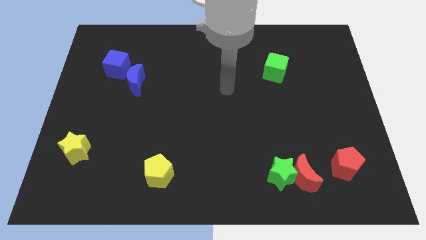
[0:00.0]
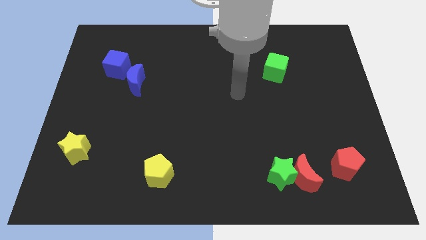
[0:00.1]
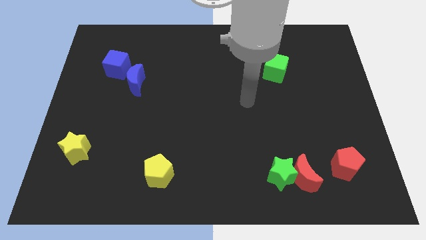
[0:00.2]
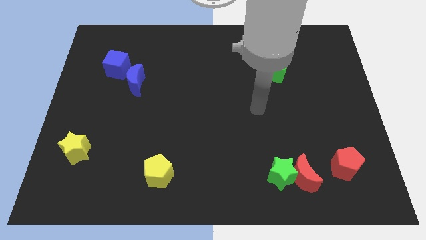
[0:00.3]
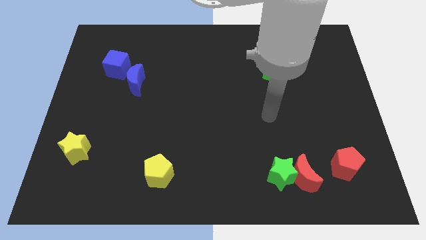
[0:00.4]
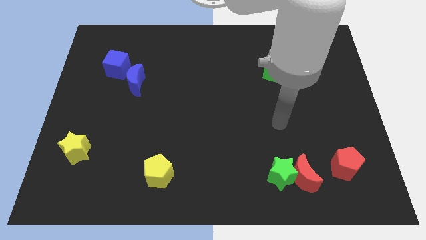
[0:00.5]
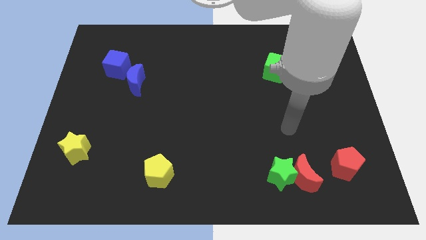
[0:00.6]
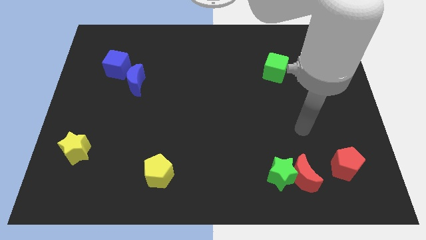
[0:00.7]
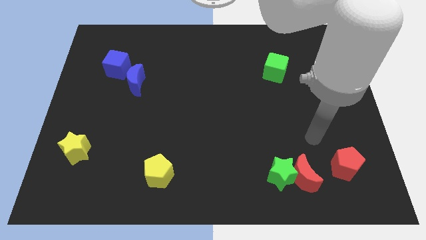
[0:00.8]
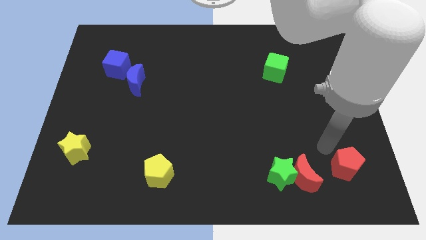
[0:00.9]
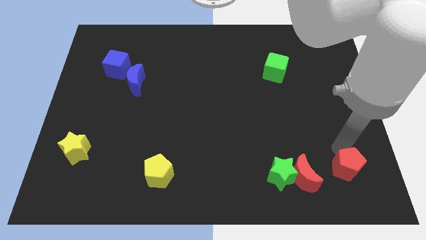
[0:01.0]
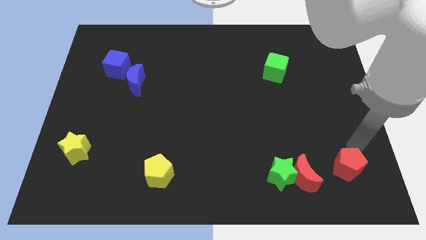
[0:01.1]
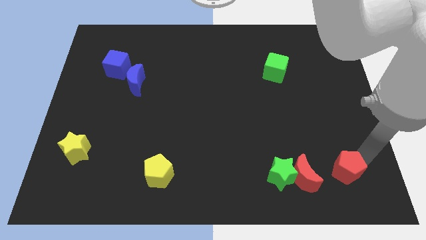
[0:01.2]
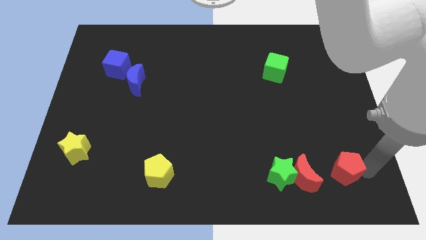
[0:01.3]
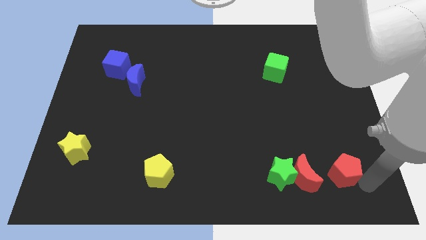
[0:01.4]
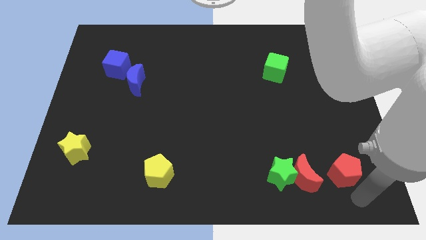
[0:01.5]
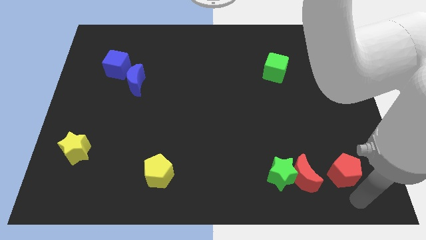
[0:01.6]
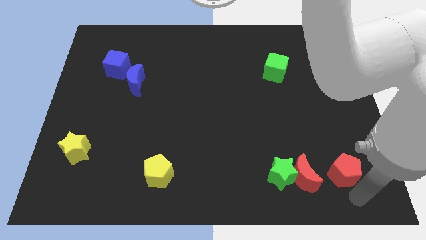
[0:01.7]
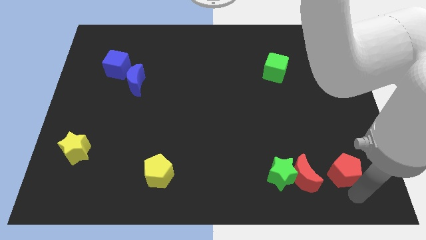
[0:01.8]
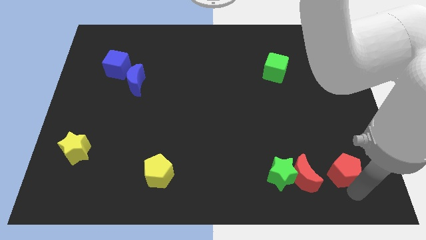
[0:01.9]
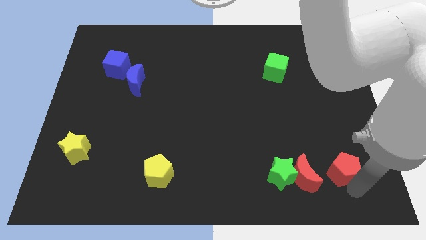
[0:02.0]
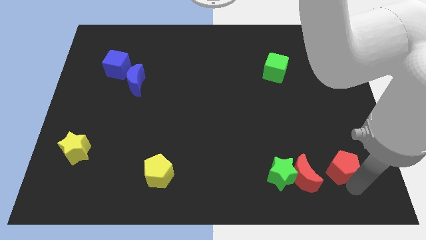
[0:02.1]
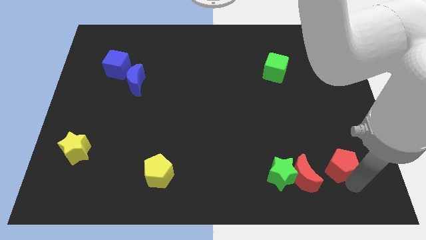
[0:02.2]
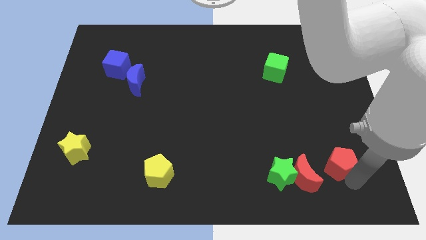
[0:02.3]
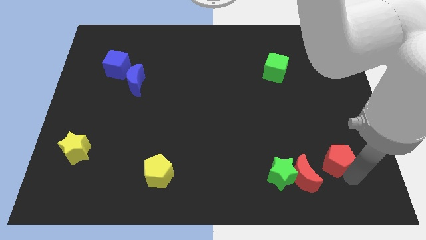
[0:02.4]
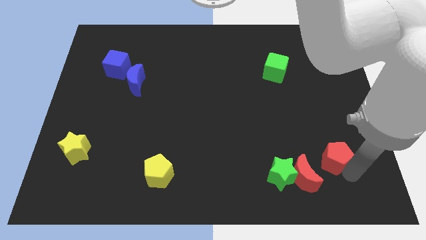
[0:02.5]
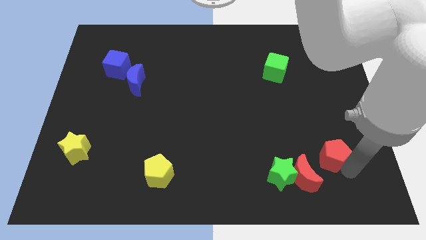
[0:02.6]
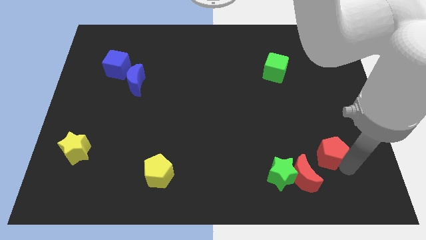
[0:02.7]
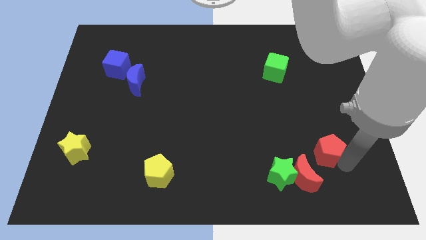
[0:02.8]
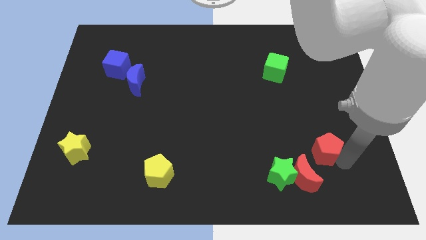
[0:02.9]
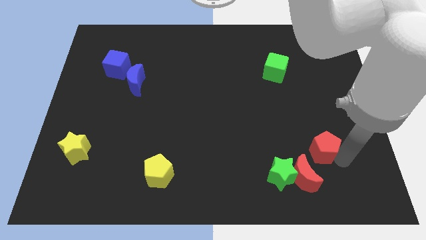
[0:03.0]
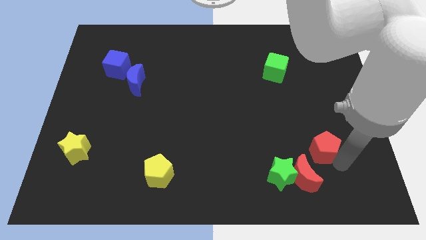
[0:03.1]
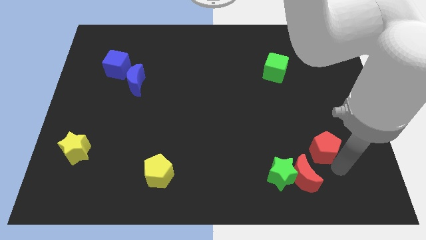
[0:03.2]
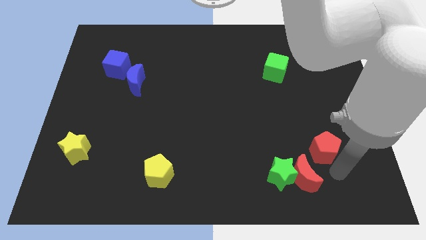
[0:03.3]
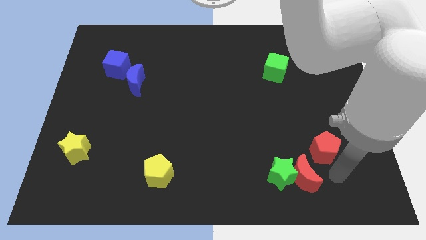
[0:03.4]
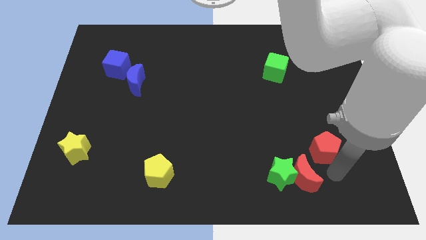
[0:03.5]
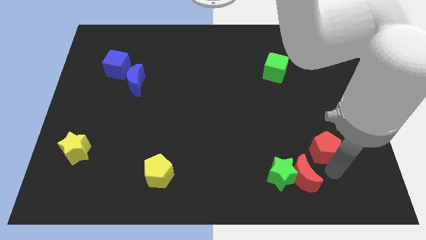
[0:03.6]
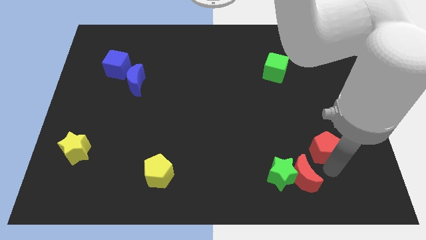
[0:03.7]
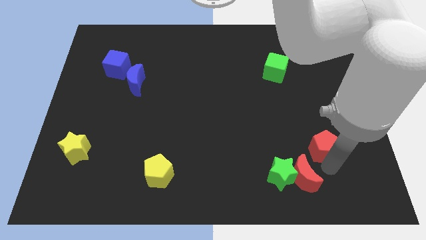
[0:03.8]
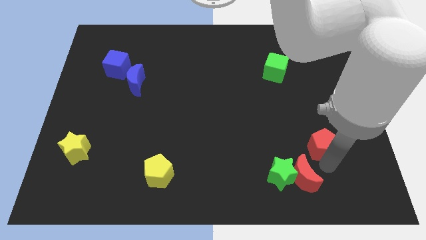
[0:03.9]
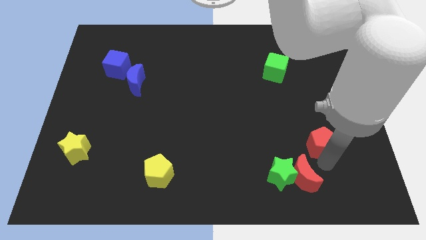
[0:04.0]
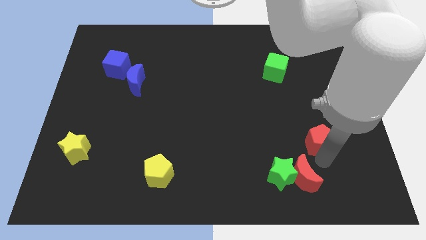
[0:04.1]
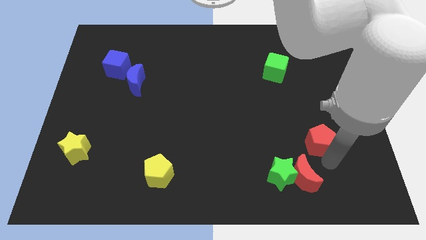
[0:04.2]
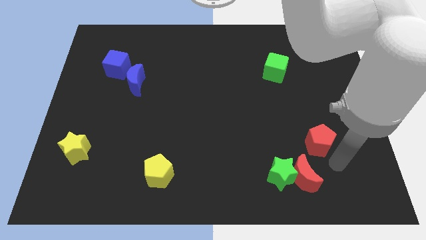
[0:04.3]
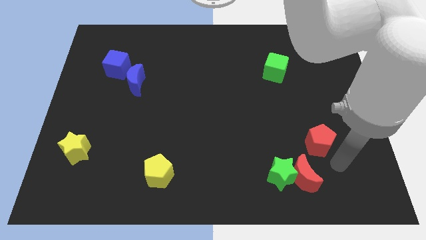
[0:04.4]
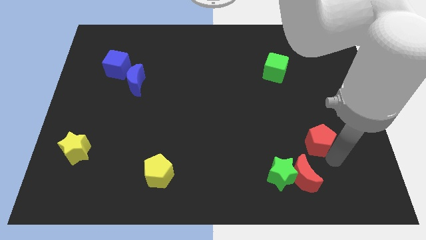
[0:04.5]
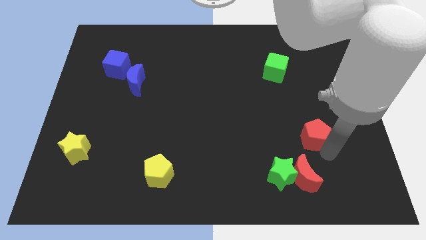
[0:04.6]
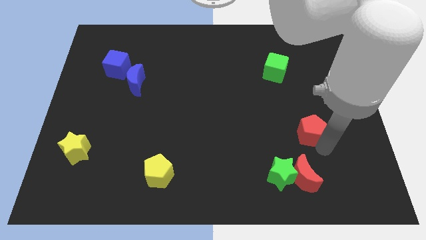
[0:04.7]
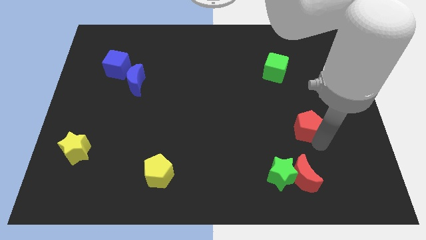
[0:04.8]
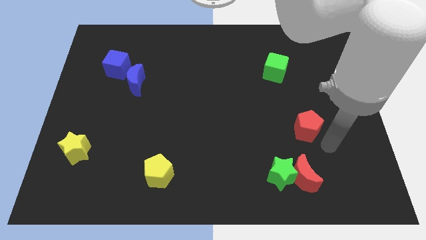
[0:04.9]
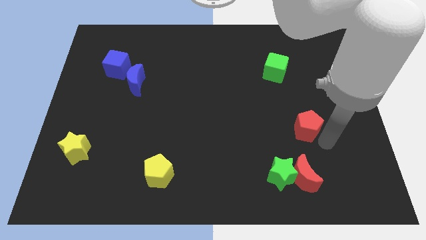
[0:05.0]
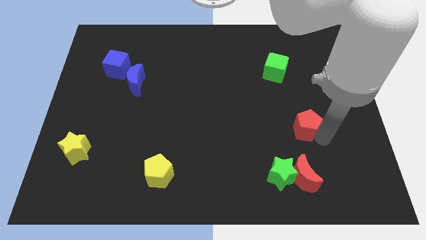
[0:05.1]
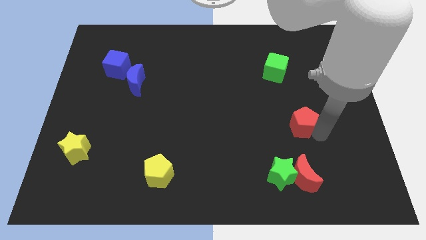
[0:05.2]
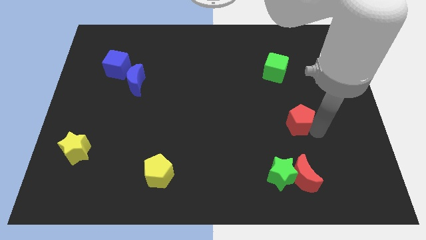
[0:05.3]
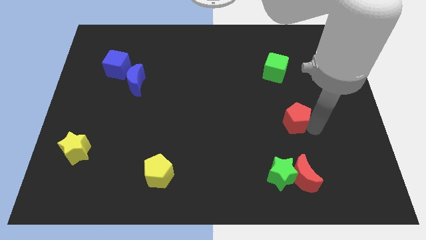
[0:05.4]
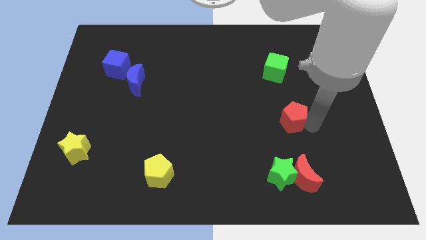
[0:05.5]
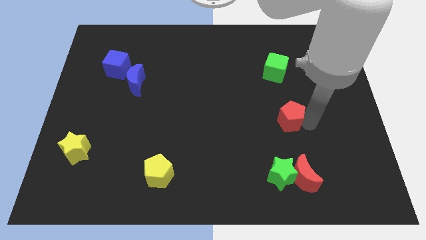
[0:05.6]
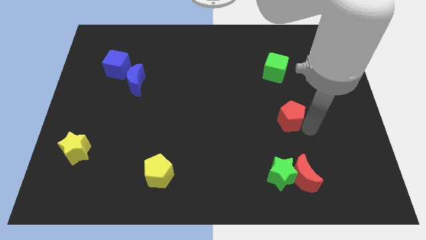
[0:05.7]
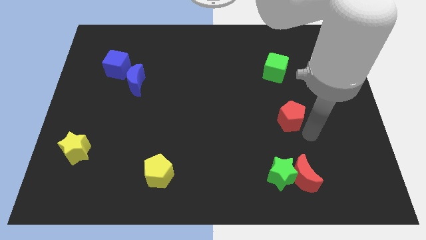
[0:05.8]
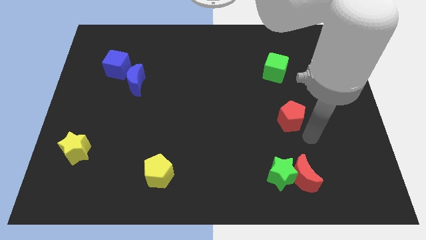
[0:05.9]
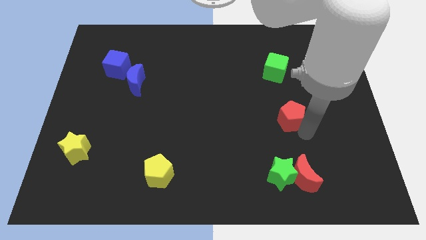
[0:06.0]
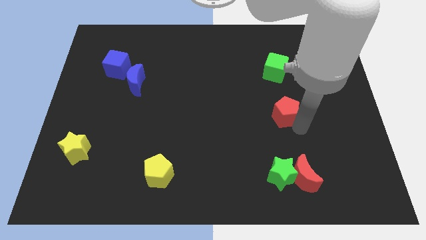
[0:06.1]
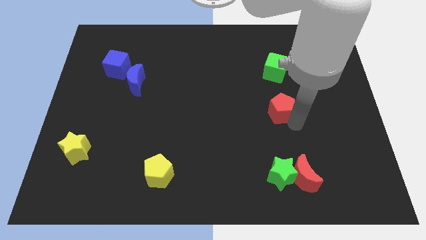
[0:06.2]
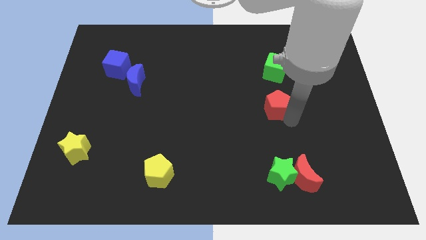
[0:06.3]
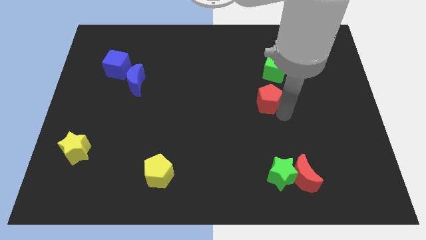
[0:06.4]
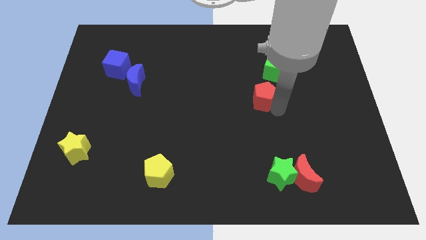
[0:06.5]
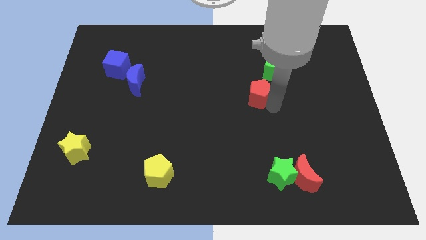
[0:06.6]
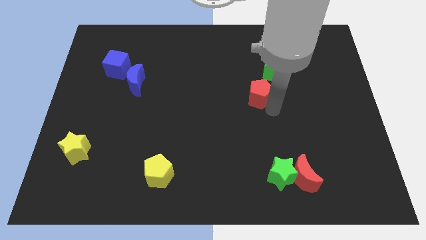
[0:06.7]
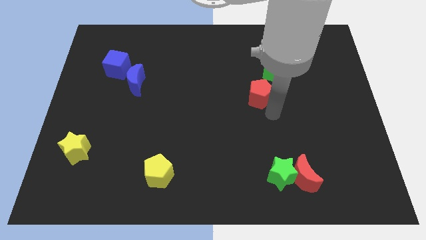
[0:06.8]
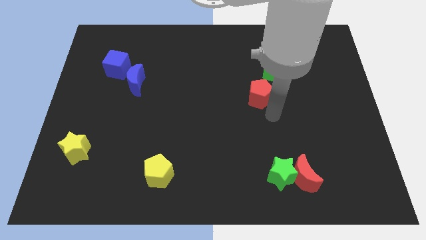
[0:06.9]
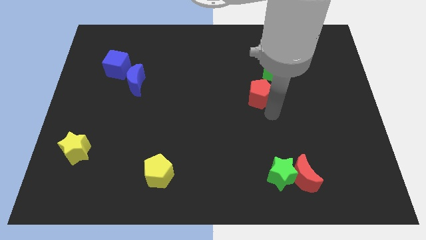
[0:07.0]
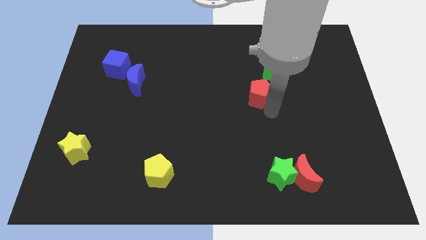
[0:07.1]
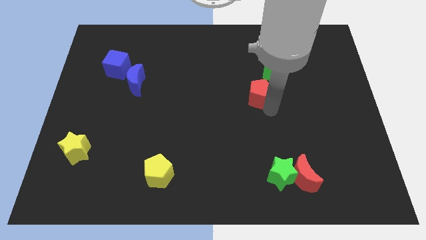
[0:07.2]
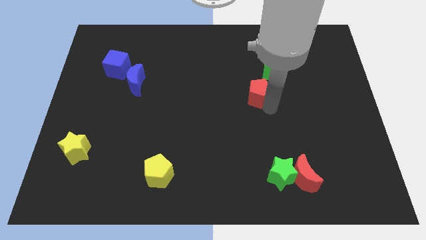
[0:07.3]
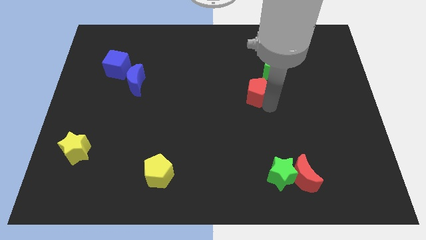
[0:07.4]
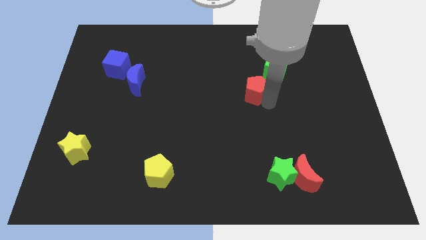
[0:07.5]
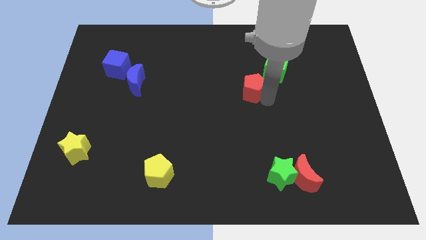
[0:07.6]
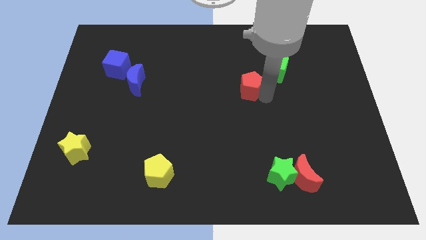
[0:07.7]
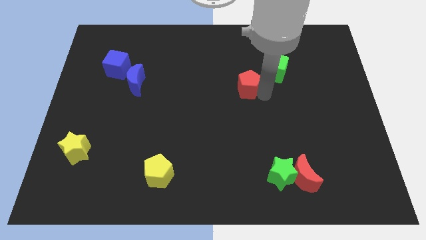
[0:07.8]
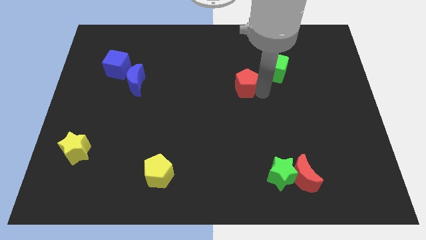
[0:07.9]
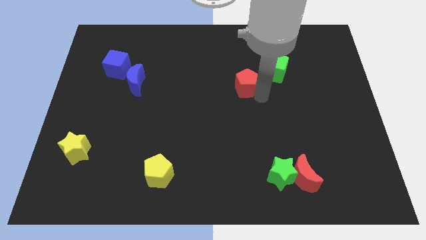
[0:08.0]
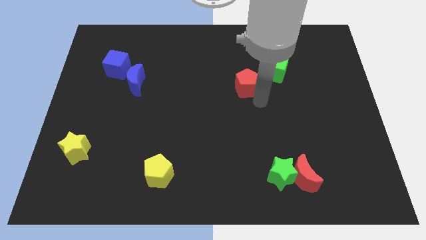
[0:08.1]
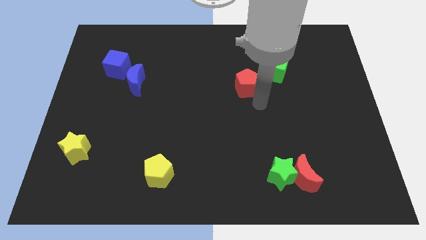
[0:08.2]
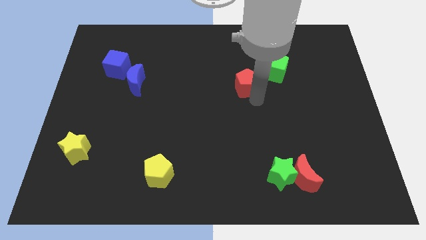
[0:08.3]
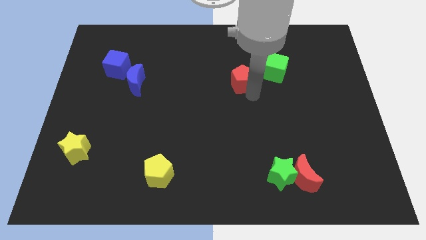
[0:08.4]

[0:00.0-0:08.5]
push the red pentagon just left of the green cube
